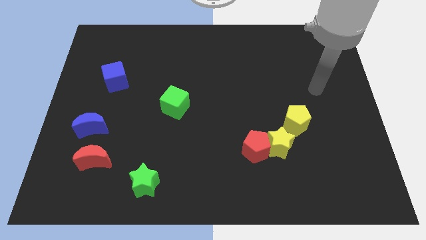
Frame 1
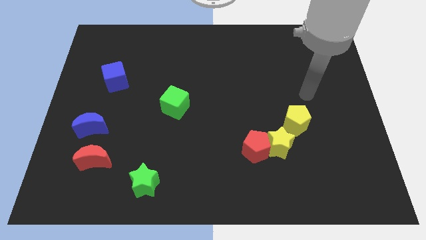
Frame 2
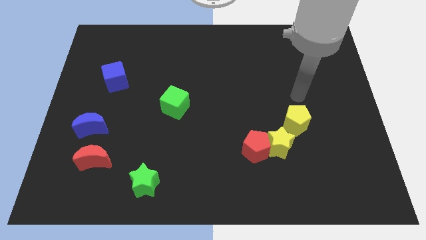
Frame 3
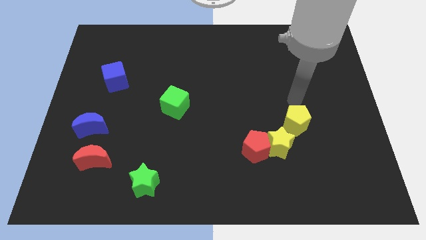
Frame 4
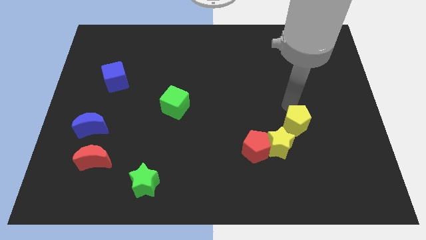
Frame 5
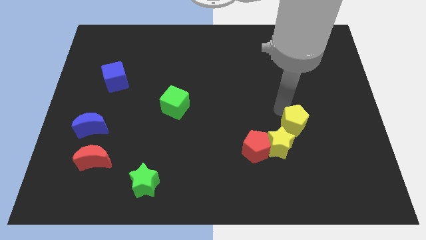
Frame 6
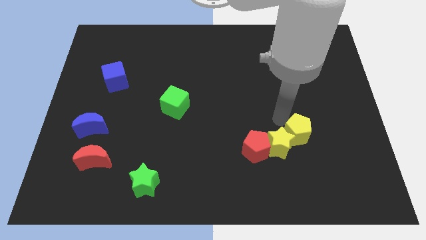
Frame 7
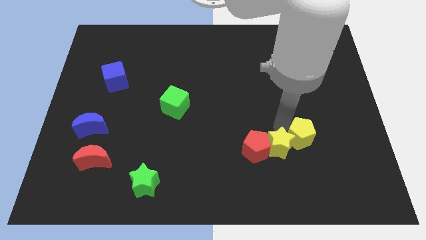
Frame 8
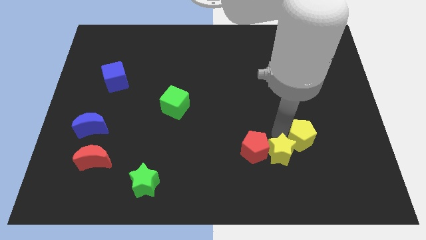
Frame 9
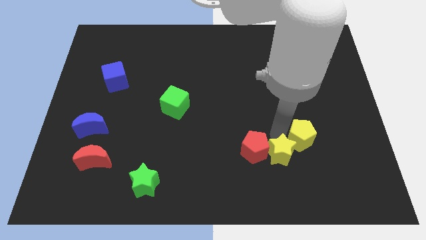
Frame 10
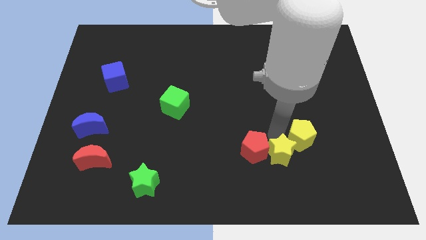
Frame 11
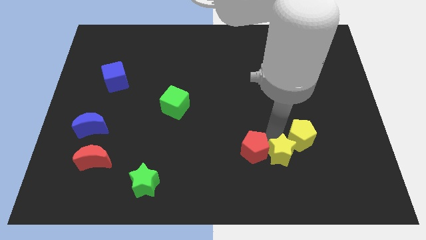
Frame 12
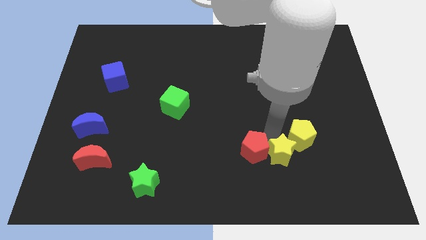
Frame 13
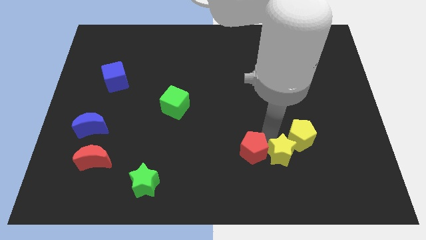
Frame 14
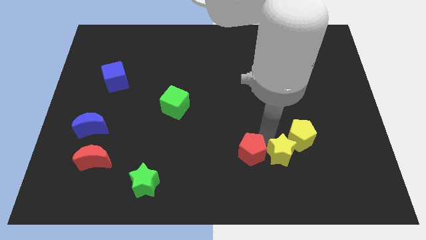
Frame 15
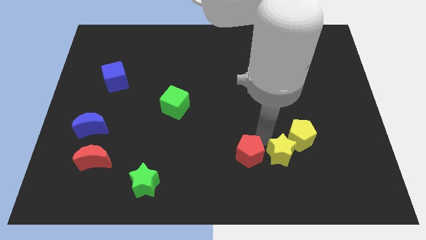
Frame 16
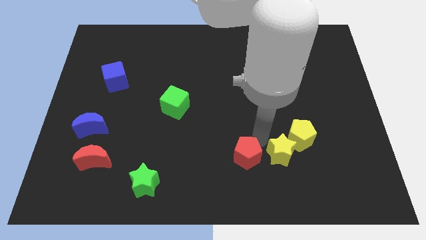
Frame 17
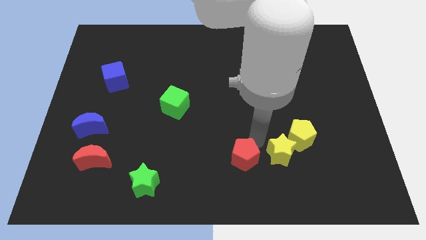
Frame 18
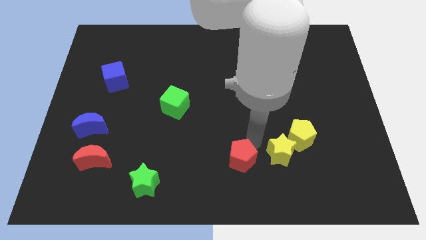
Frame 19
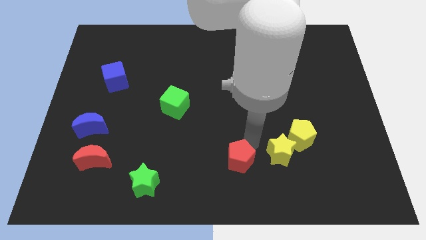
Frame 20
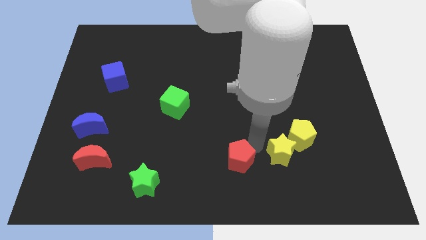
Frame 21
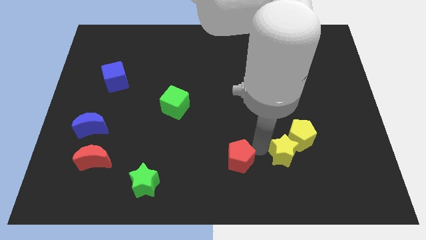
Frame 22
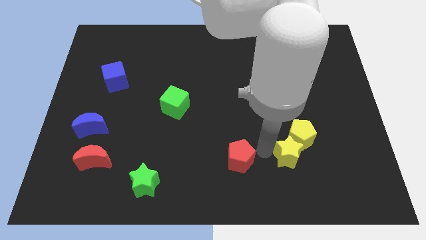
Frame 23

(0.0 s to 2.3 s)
separate the red pentagon from the yellow star

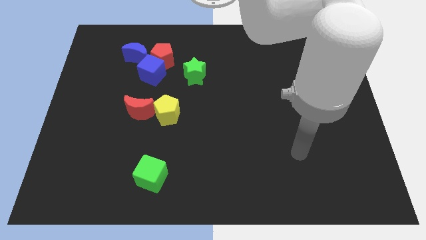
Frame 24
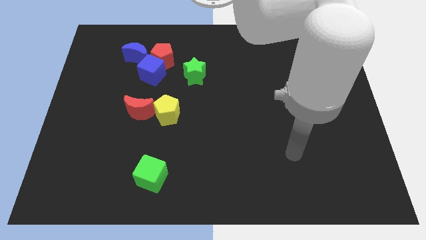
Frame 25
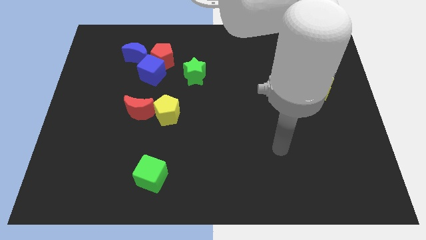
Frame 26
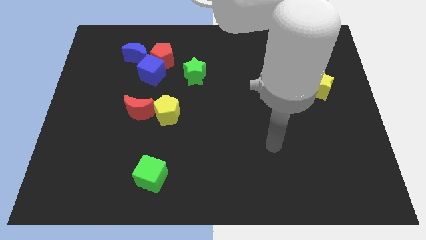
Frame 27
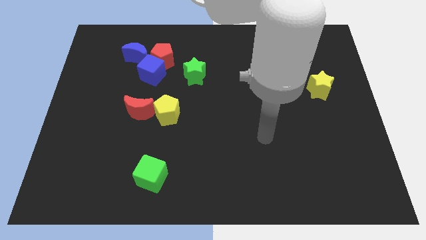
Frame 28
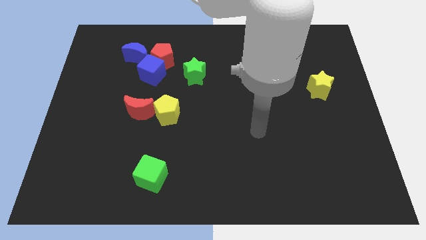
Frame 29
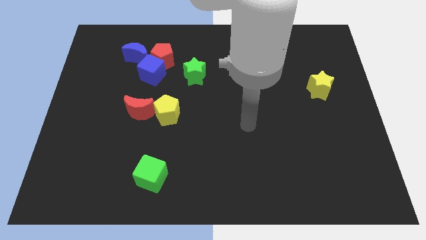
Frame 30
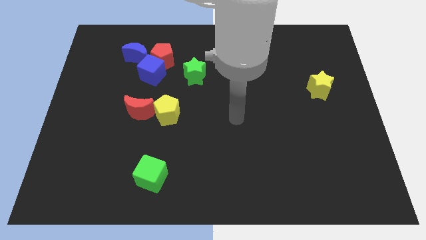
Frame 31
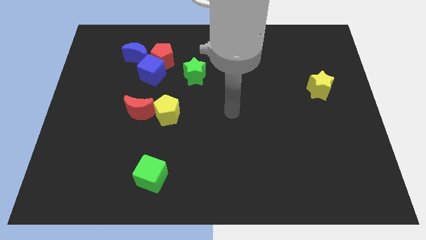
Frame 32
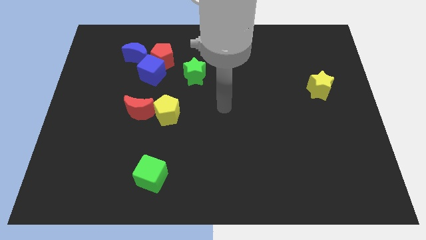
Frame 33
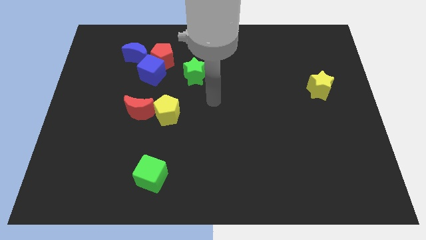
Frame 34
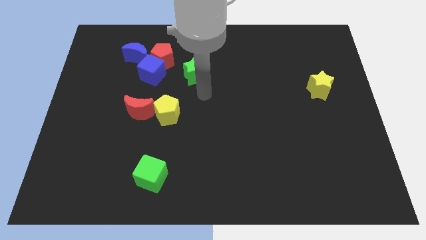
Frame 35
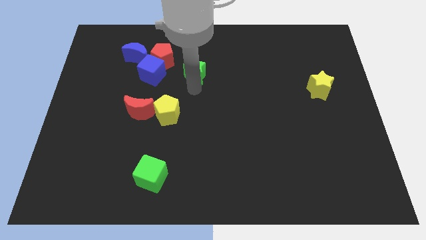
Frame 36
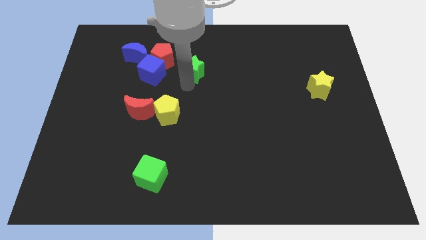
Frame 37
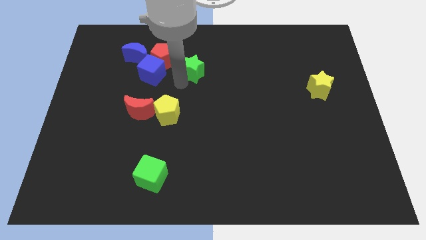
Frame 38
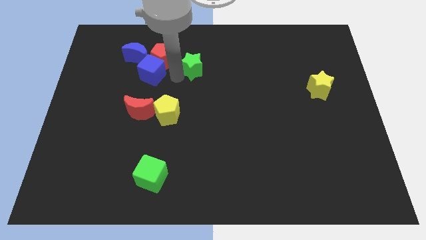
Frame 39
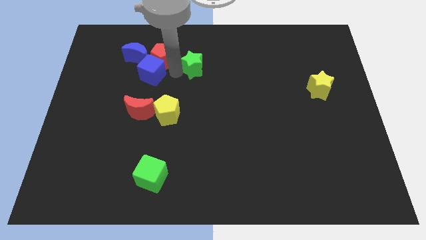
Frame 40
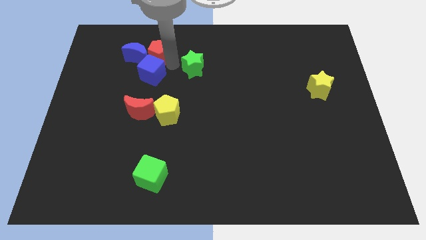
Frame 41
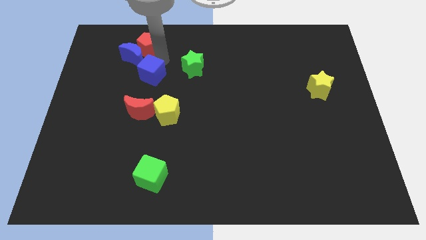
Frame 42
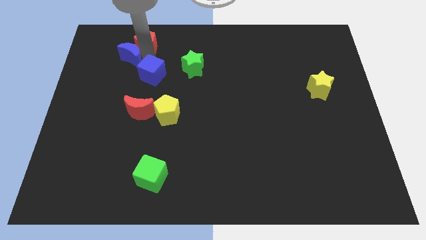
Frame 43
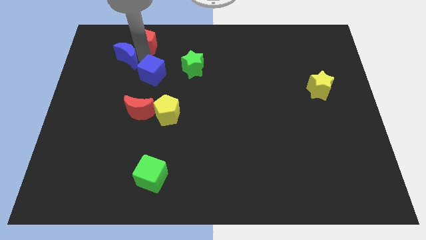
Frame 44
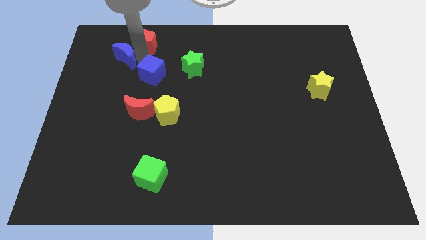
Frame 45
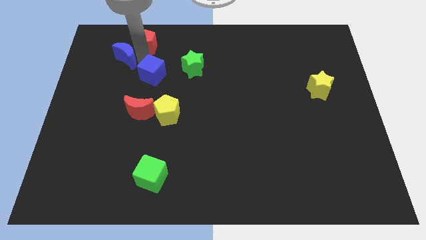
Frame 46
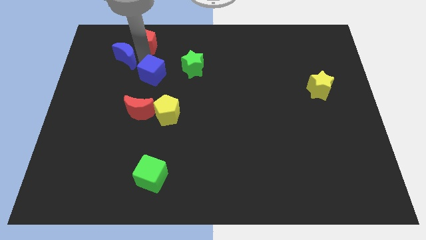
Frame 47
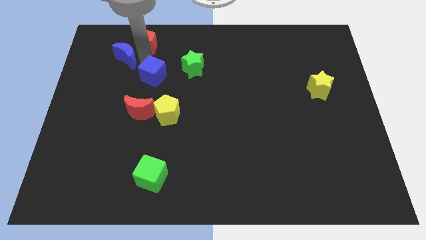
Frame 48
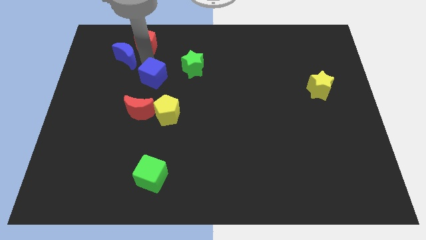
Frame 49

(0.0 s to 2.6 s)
separate the blue cube from the red pentagon and blue moon

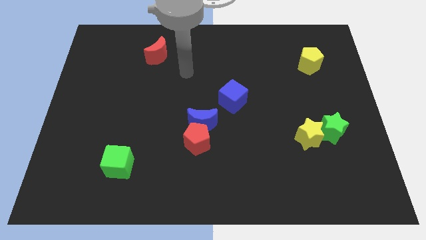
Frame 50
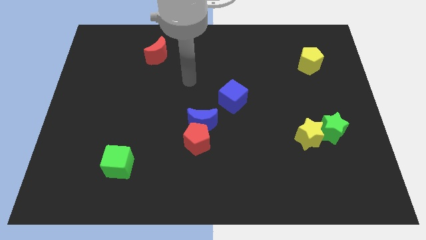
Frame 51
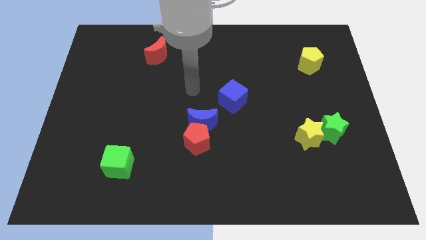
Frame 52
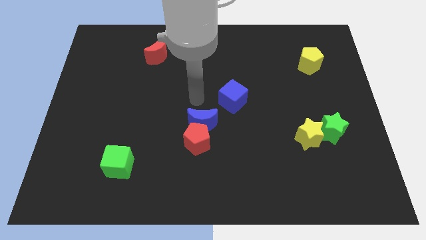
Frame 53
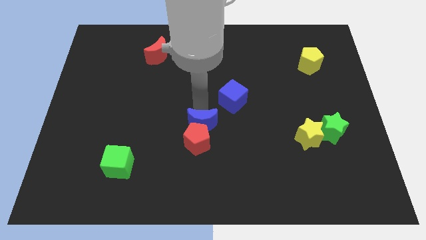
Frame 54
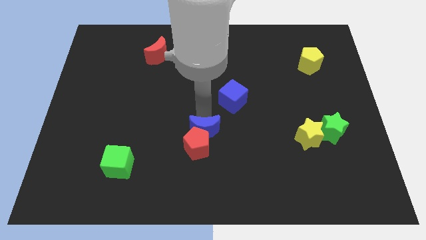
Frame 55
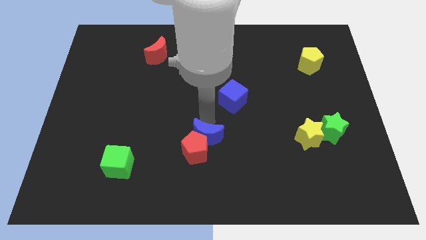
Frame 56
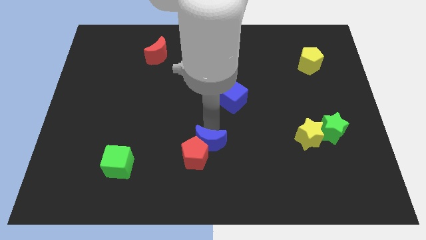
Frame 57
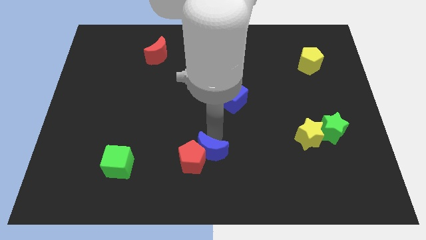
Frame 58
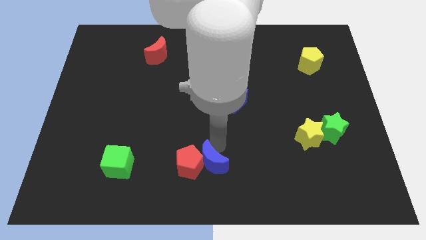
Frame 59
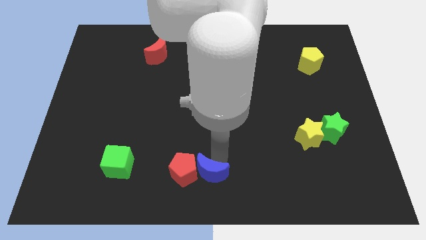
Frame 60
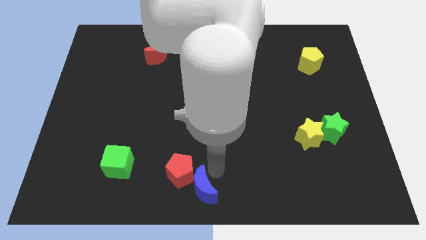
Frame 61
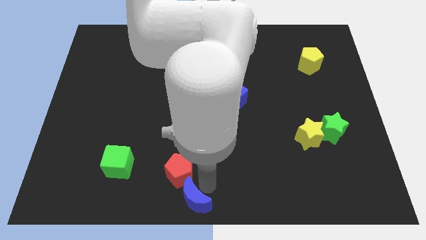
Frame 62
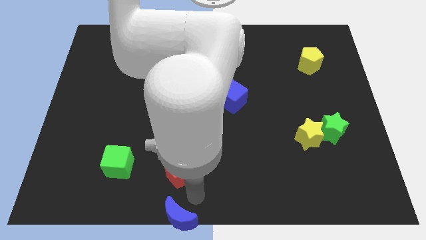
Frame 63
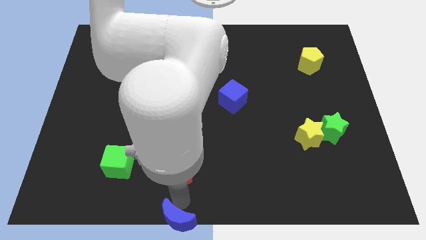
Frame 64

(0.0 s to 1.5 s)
move the red pentagon away from the blue moon

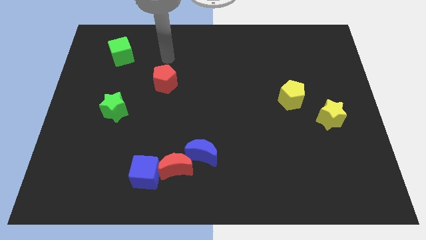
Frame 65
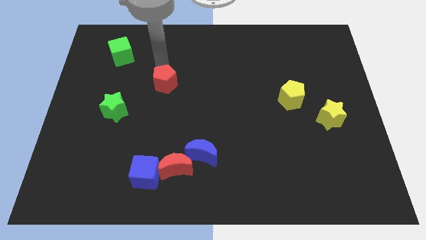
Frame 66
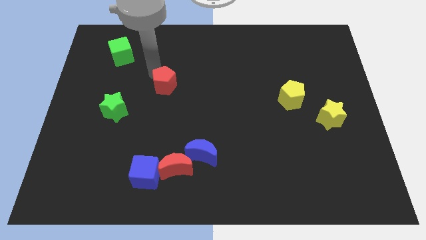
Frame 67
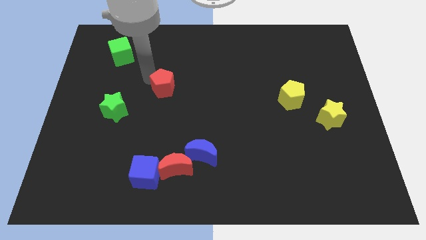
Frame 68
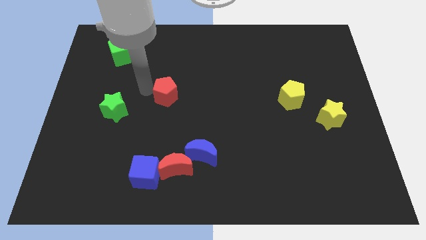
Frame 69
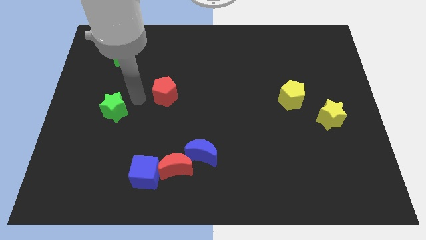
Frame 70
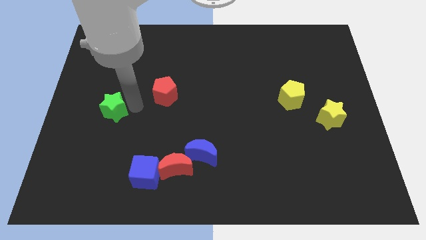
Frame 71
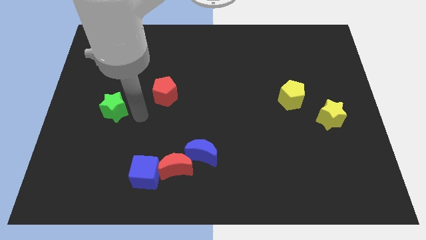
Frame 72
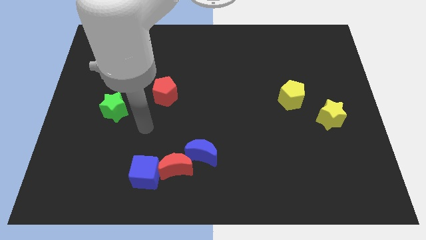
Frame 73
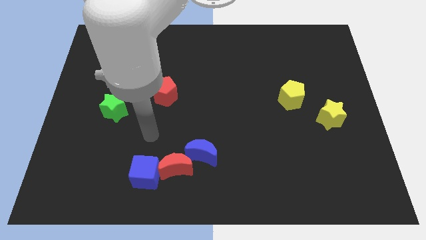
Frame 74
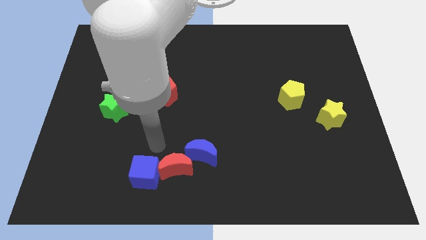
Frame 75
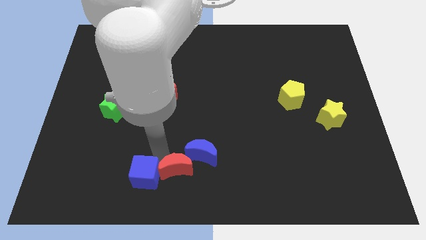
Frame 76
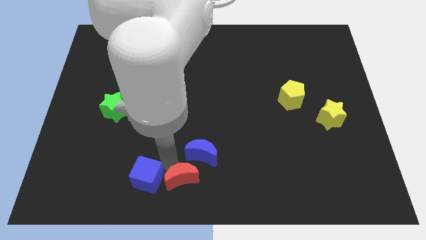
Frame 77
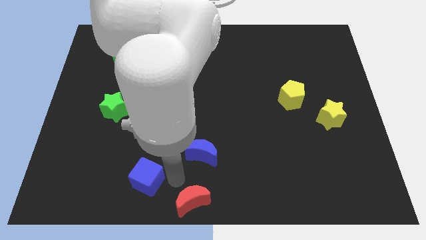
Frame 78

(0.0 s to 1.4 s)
separate the blue cube from the red moon

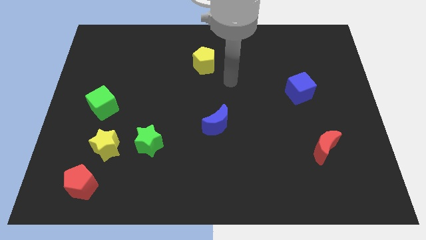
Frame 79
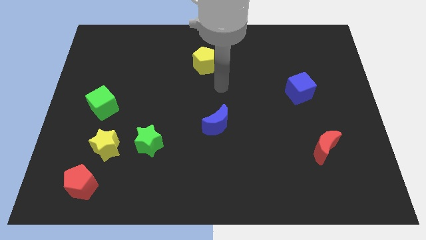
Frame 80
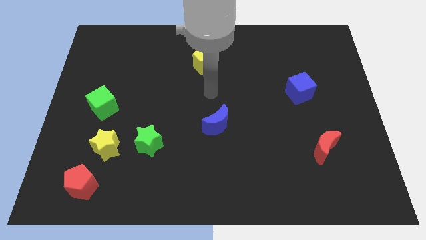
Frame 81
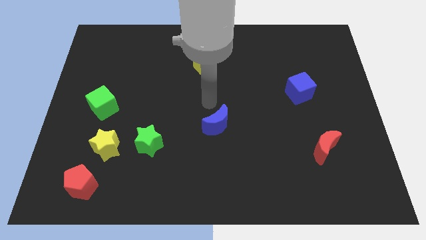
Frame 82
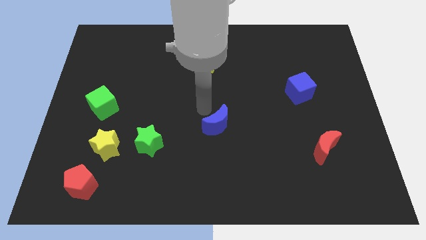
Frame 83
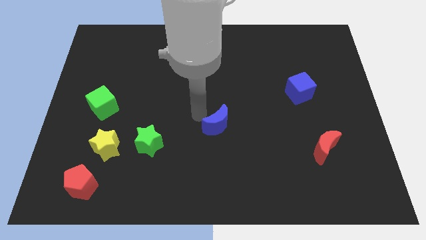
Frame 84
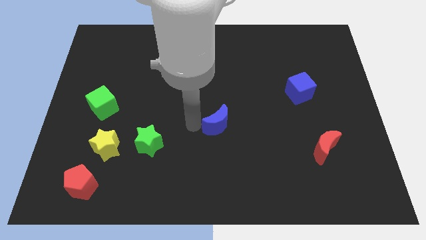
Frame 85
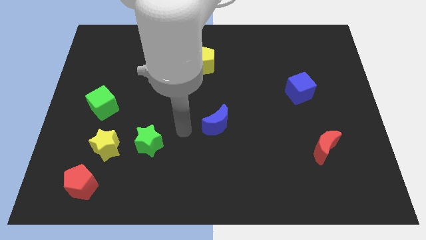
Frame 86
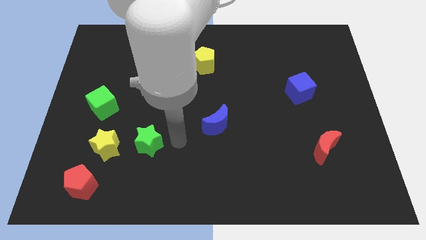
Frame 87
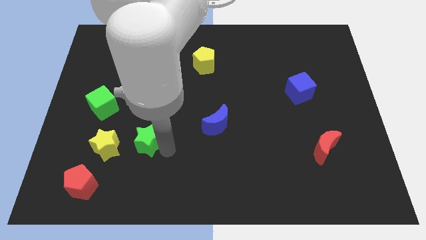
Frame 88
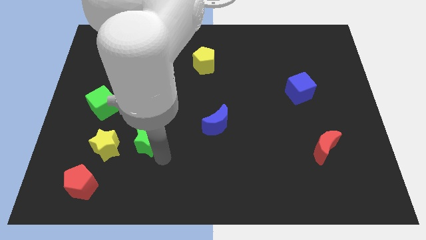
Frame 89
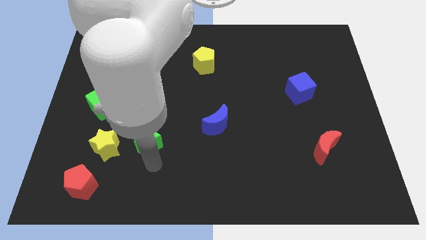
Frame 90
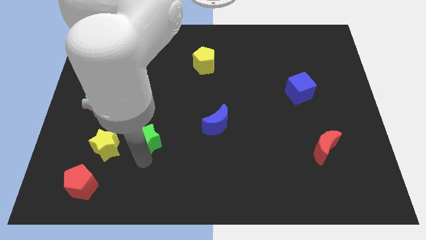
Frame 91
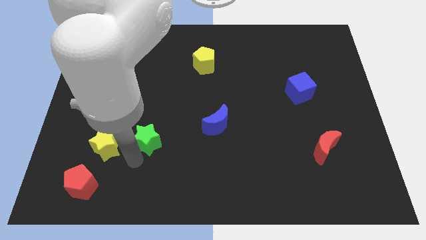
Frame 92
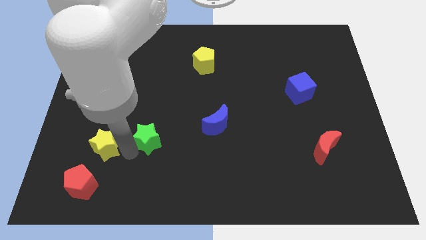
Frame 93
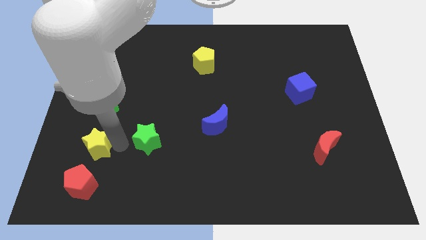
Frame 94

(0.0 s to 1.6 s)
pull the green star apart from the yellow star
